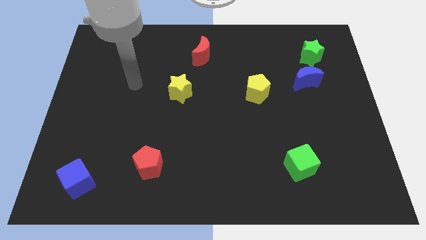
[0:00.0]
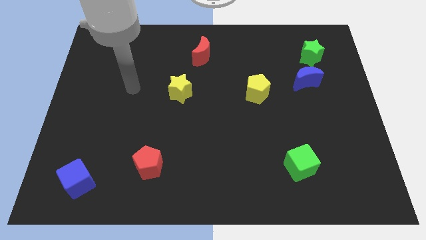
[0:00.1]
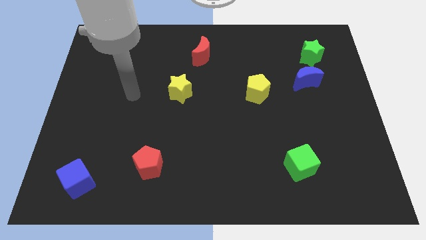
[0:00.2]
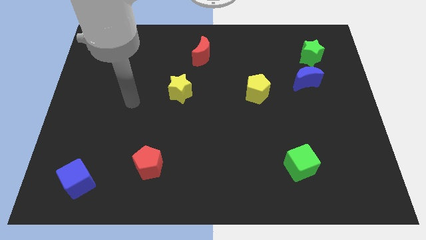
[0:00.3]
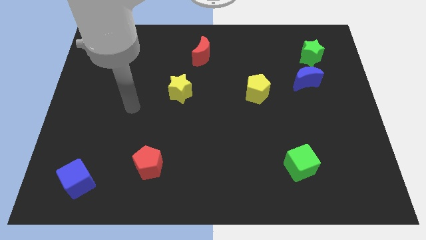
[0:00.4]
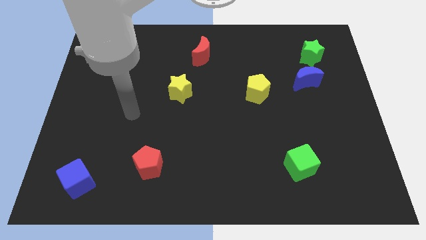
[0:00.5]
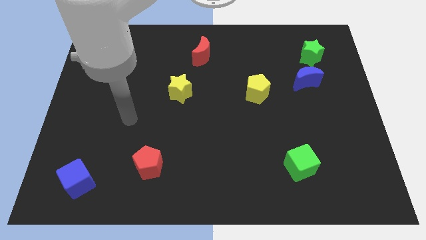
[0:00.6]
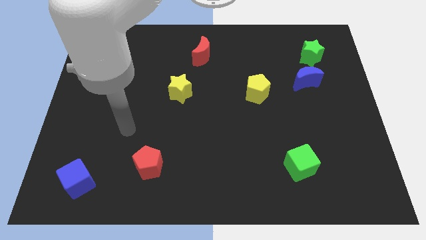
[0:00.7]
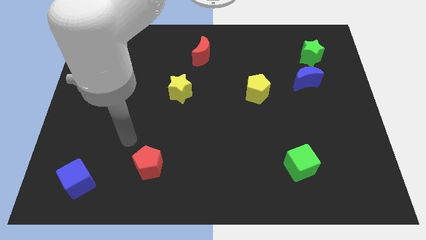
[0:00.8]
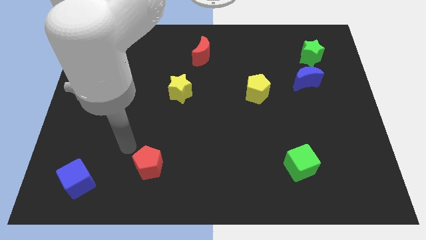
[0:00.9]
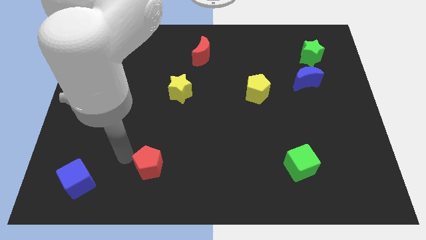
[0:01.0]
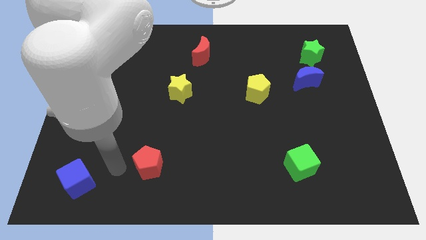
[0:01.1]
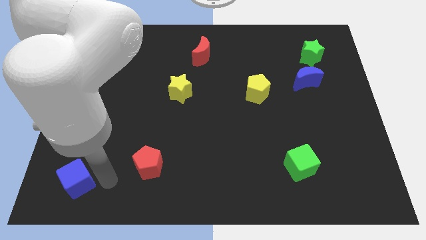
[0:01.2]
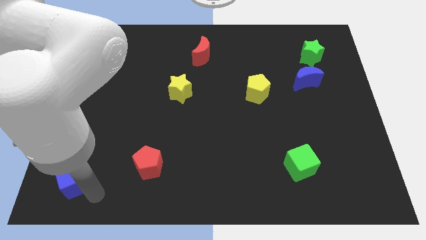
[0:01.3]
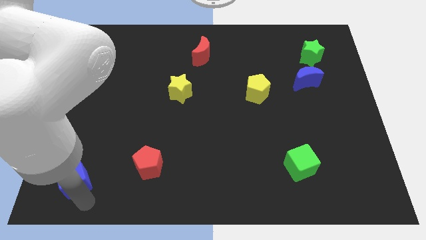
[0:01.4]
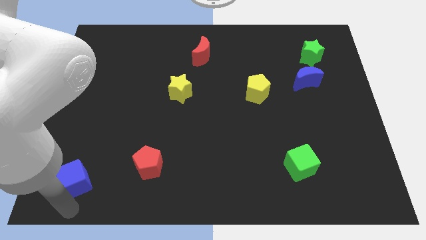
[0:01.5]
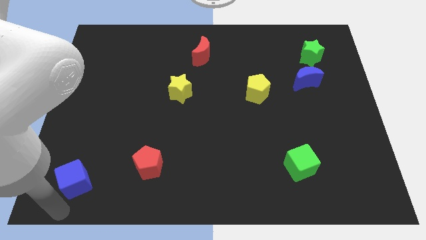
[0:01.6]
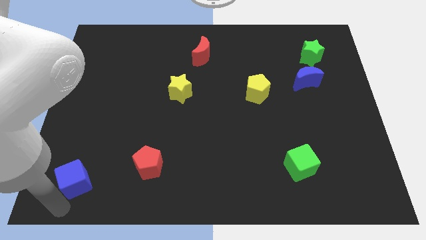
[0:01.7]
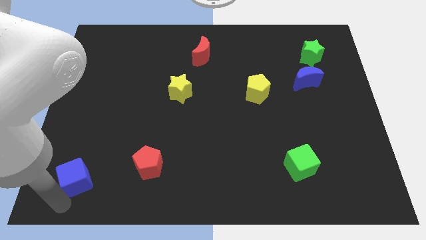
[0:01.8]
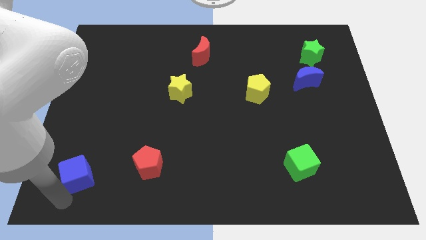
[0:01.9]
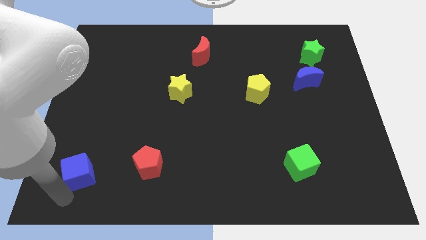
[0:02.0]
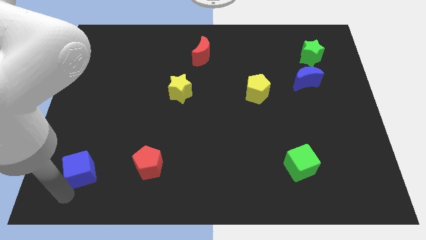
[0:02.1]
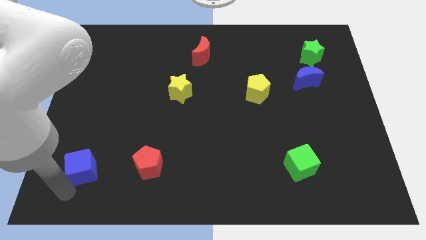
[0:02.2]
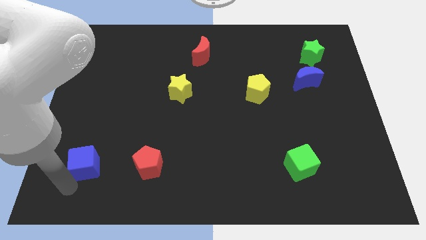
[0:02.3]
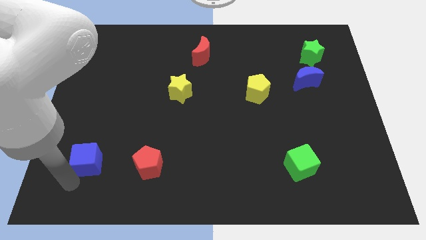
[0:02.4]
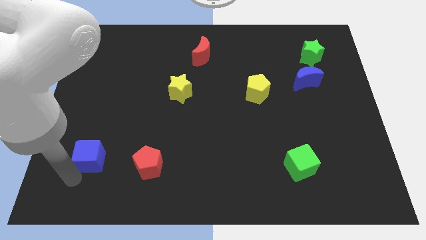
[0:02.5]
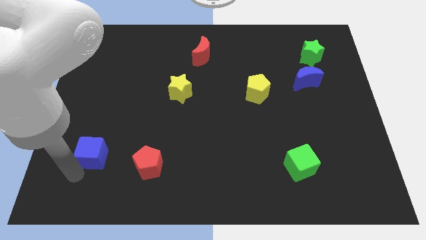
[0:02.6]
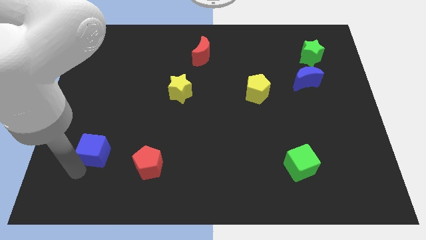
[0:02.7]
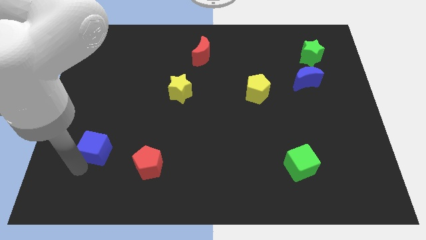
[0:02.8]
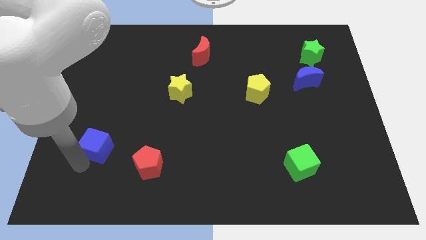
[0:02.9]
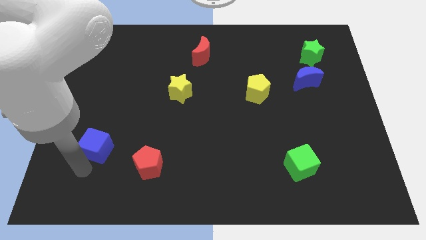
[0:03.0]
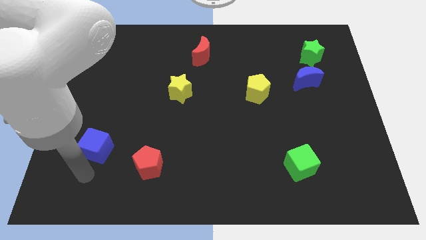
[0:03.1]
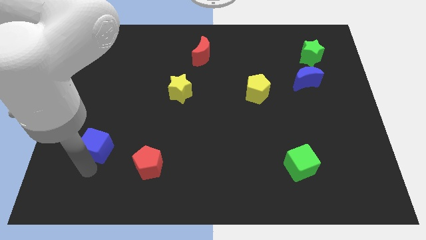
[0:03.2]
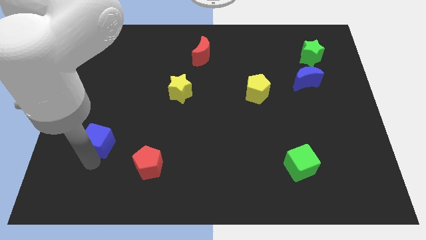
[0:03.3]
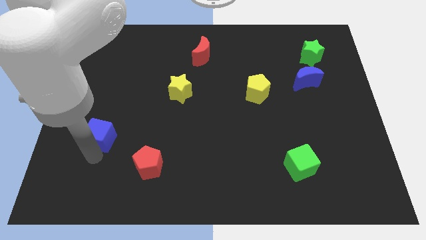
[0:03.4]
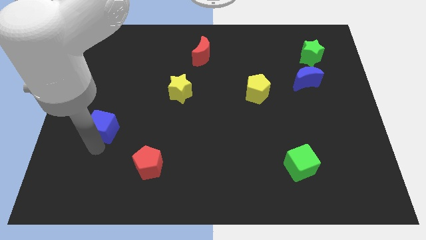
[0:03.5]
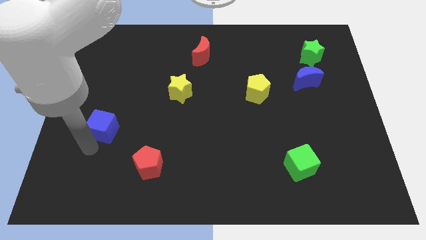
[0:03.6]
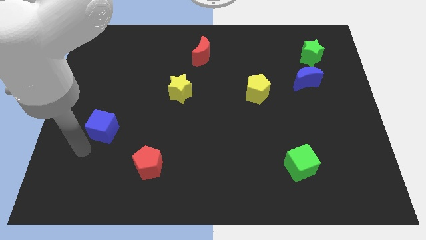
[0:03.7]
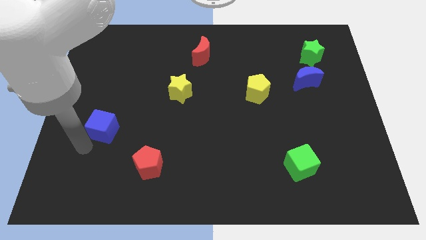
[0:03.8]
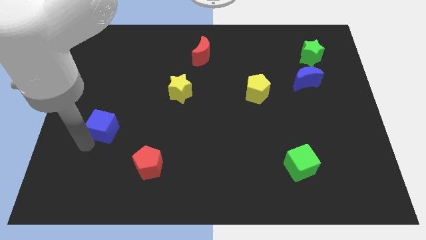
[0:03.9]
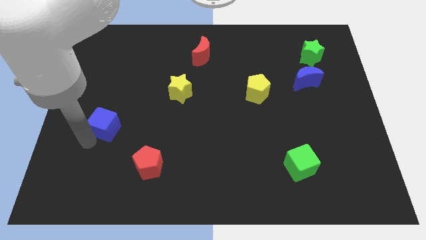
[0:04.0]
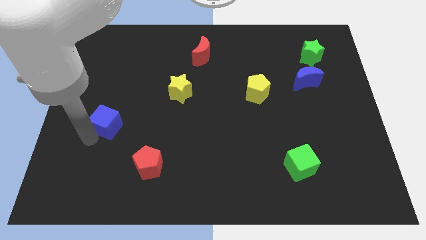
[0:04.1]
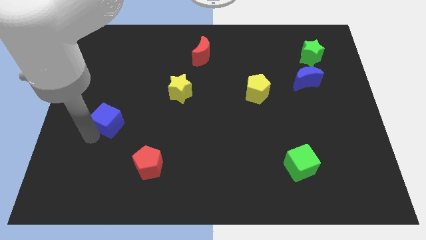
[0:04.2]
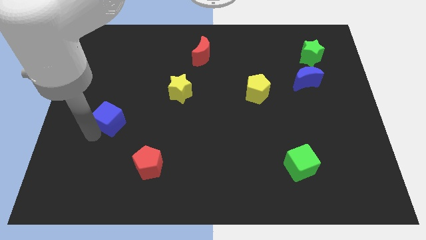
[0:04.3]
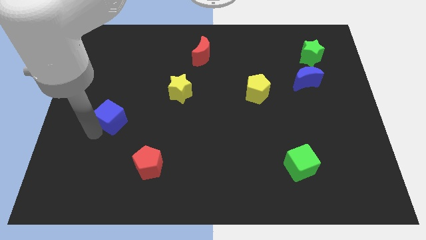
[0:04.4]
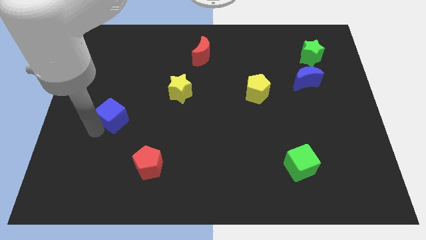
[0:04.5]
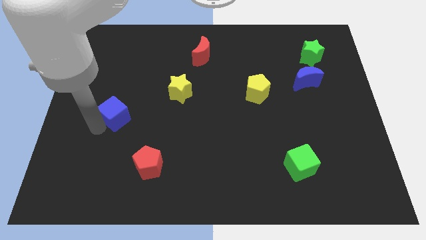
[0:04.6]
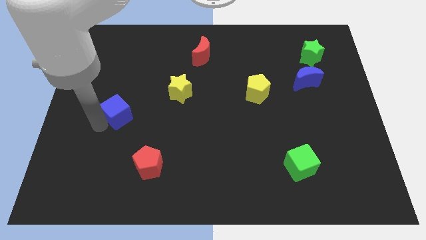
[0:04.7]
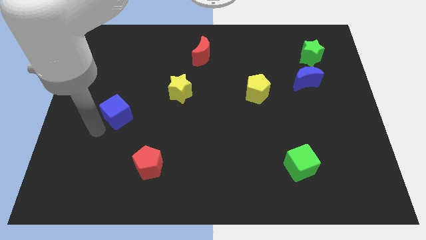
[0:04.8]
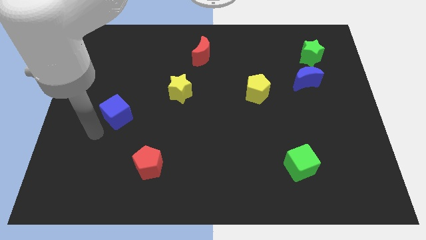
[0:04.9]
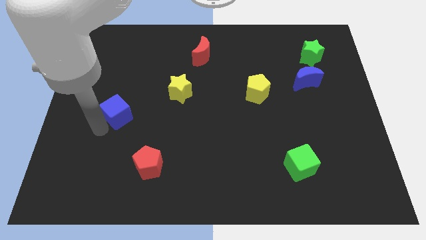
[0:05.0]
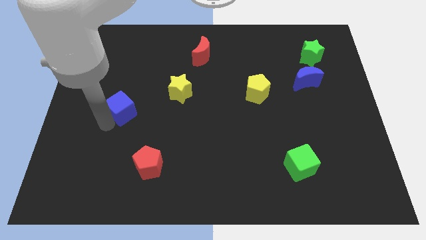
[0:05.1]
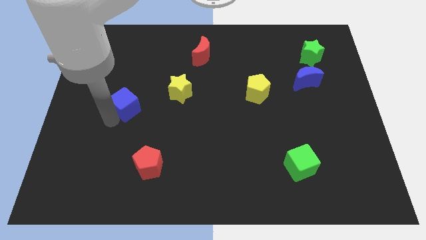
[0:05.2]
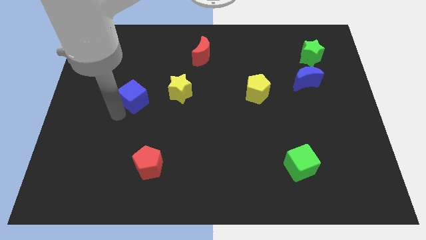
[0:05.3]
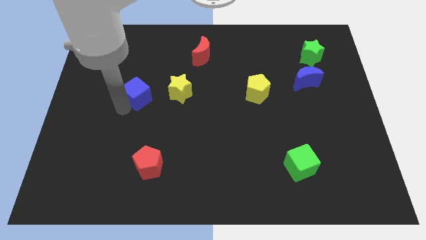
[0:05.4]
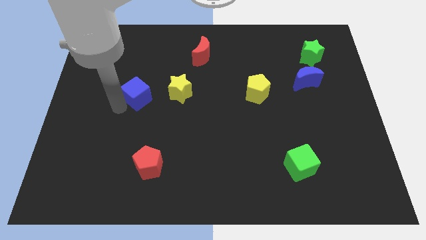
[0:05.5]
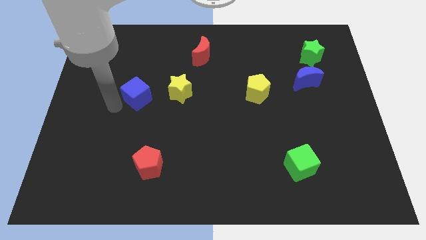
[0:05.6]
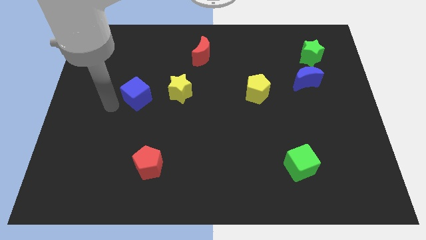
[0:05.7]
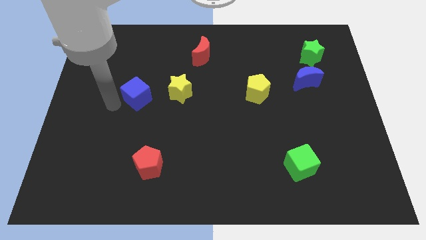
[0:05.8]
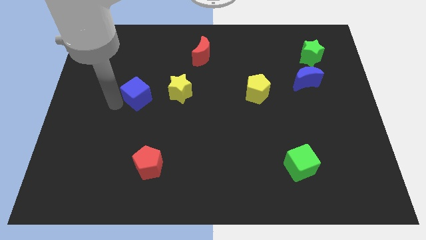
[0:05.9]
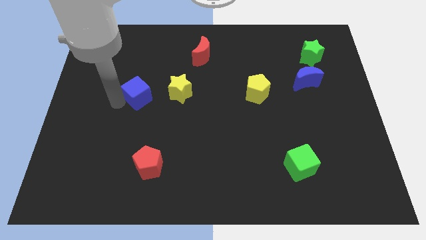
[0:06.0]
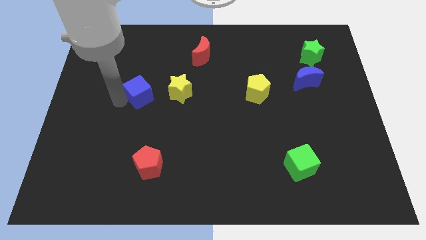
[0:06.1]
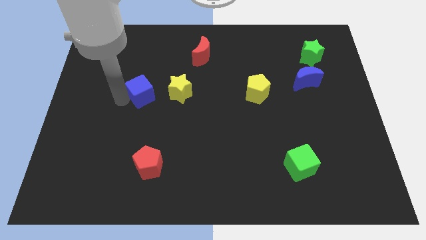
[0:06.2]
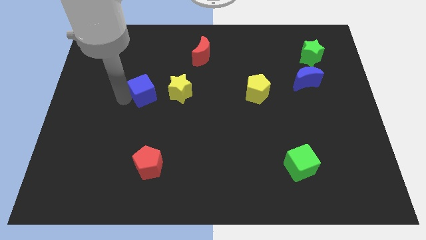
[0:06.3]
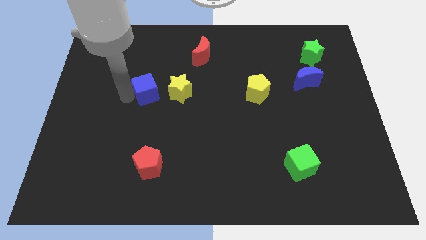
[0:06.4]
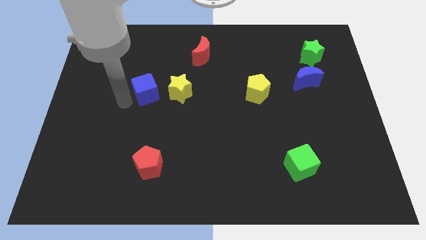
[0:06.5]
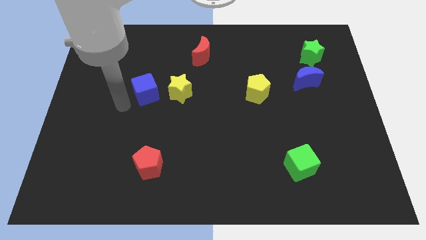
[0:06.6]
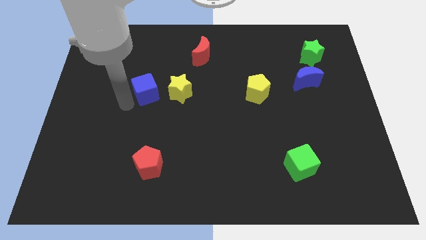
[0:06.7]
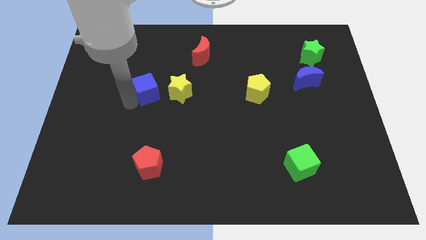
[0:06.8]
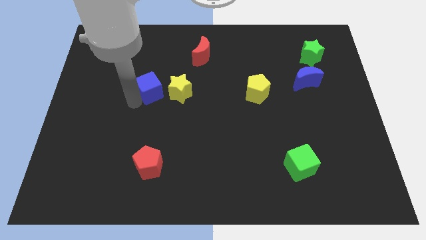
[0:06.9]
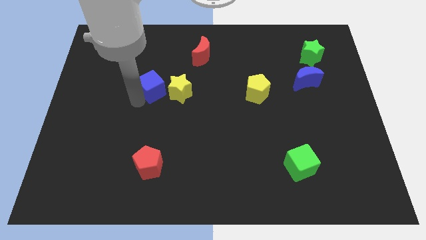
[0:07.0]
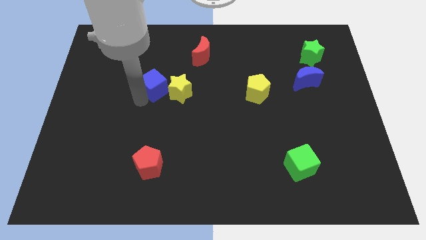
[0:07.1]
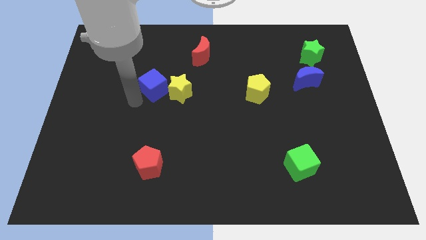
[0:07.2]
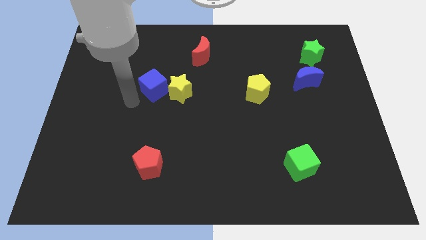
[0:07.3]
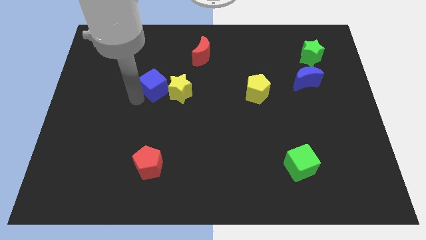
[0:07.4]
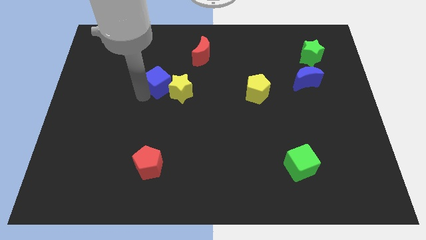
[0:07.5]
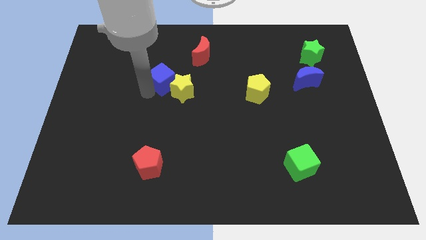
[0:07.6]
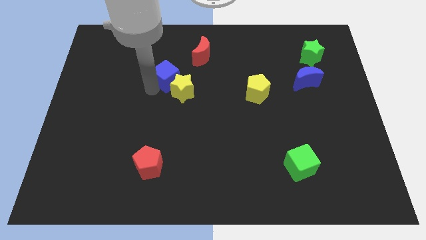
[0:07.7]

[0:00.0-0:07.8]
move the blue cube to the bottom left of the red moon
